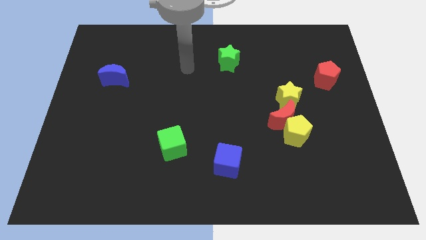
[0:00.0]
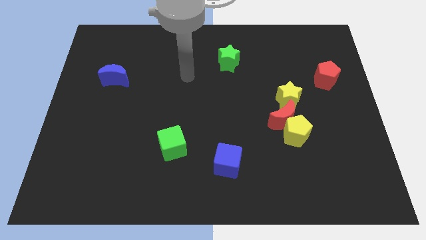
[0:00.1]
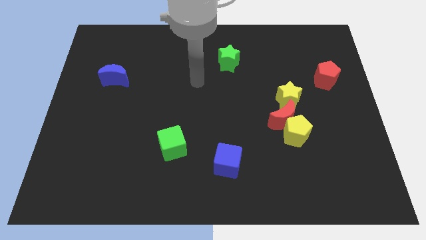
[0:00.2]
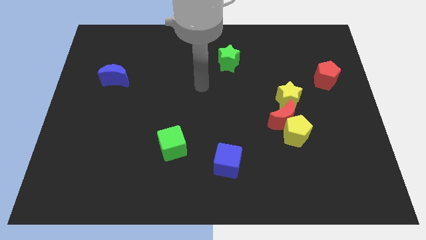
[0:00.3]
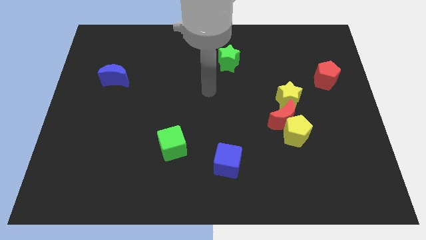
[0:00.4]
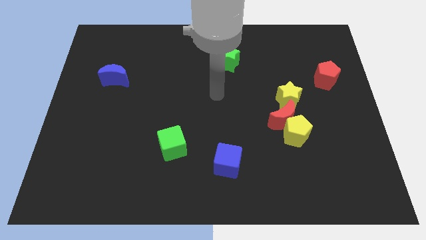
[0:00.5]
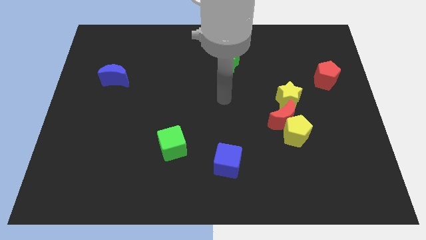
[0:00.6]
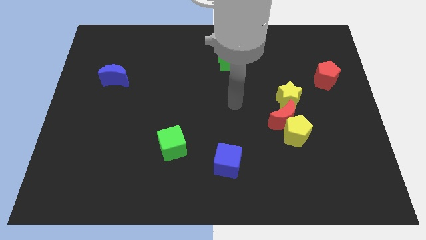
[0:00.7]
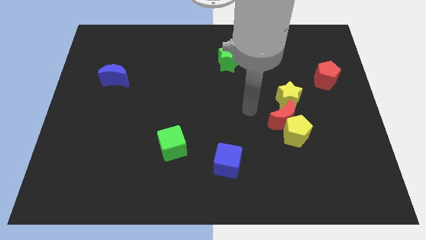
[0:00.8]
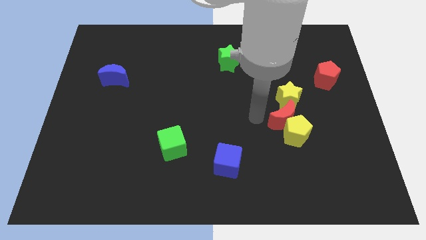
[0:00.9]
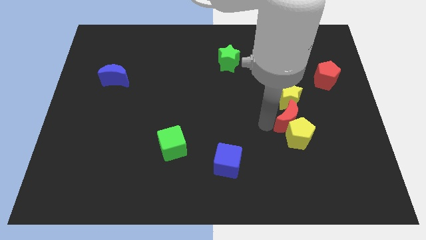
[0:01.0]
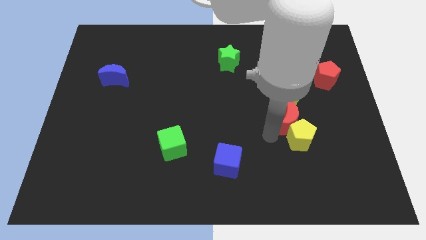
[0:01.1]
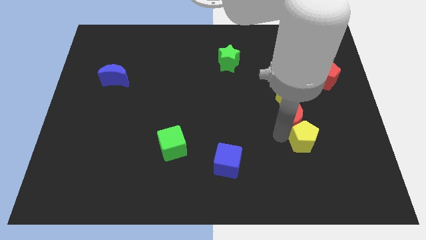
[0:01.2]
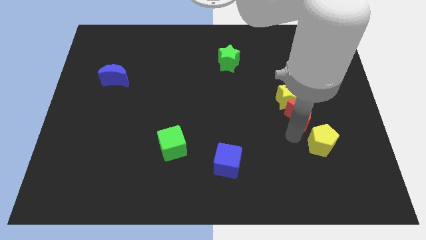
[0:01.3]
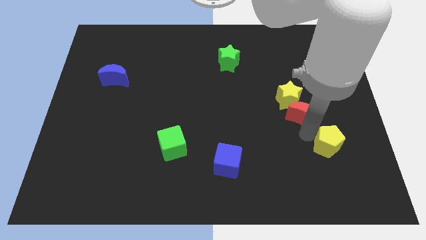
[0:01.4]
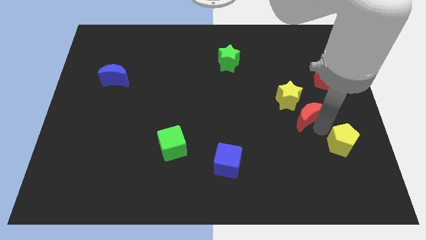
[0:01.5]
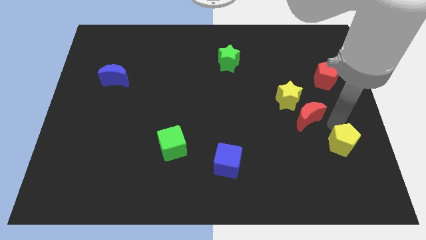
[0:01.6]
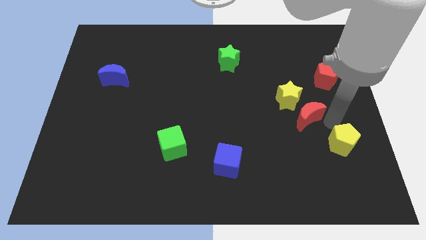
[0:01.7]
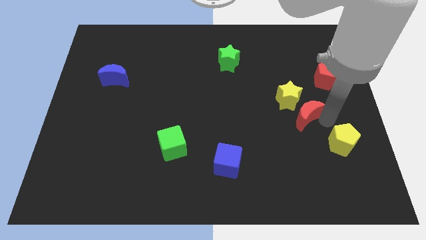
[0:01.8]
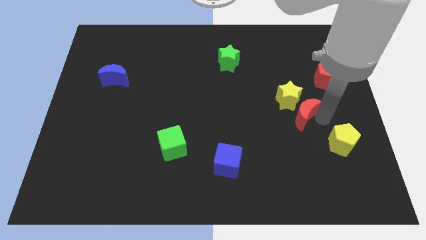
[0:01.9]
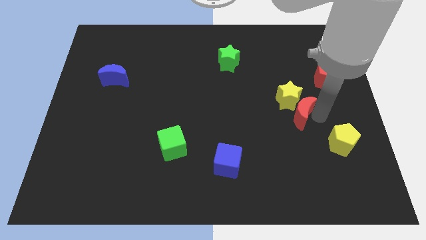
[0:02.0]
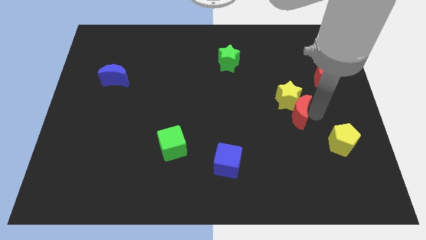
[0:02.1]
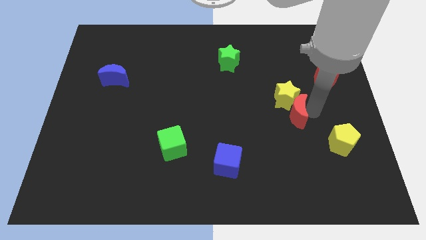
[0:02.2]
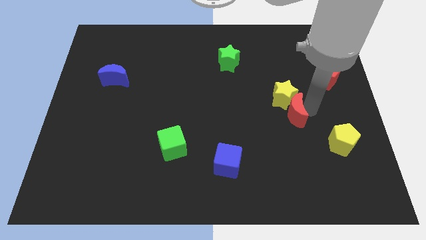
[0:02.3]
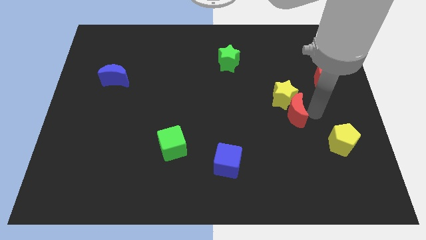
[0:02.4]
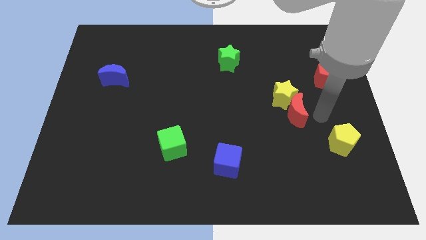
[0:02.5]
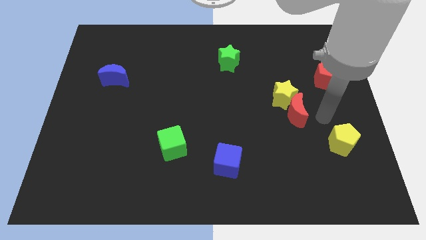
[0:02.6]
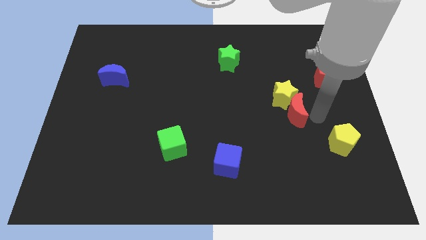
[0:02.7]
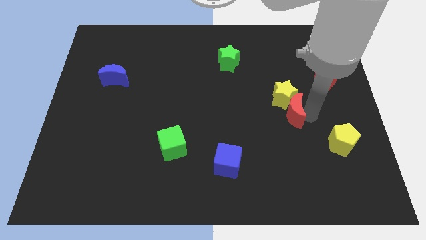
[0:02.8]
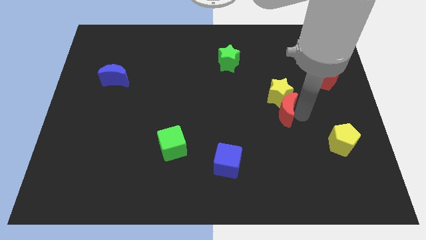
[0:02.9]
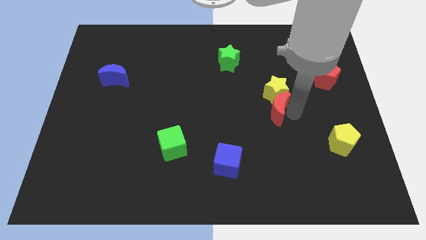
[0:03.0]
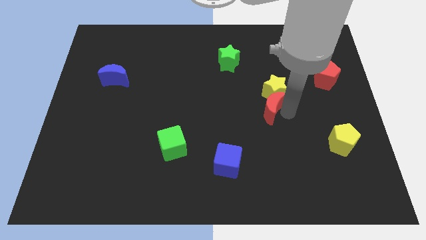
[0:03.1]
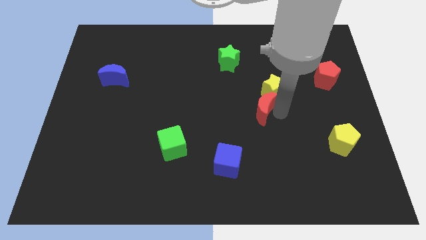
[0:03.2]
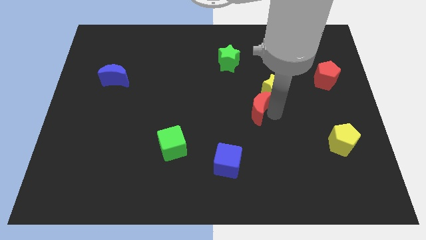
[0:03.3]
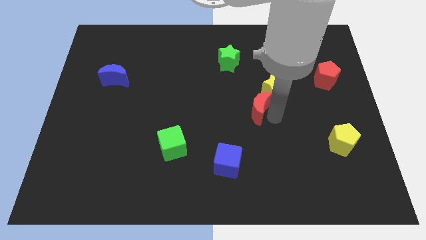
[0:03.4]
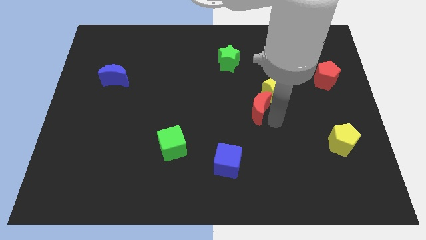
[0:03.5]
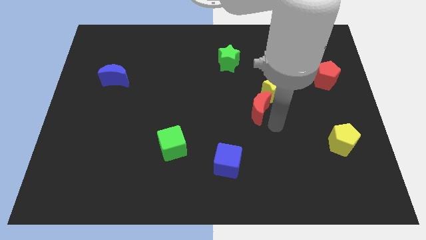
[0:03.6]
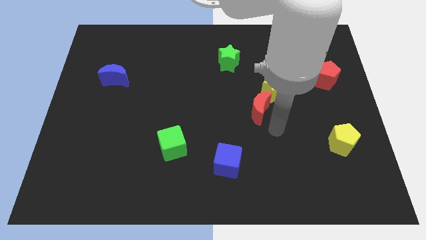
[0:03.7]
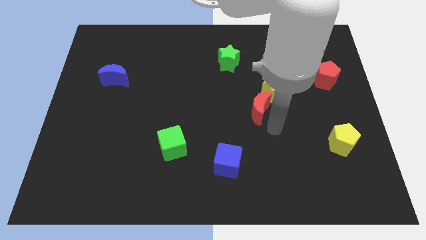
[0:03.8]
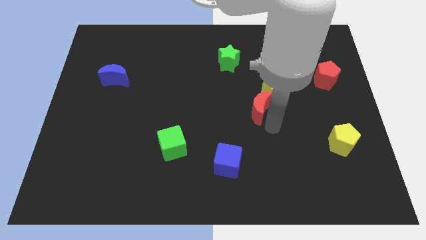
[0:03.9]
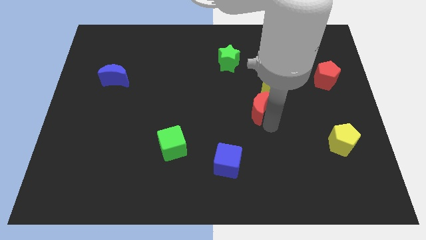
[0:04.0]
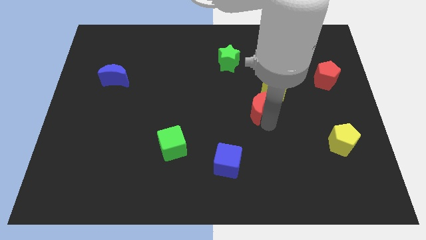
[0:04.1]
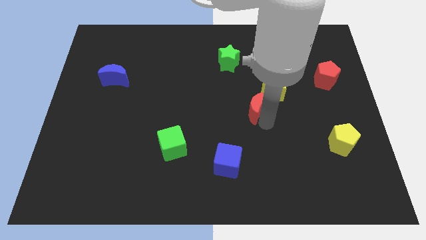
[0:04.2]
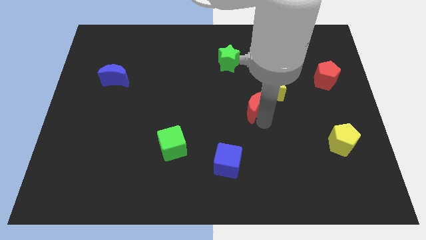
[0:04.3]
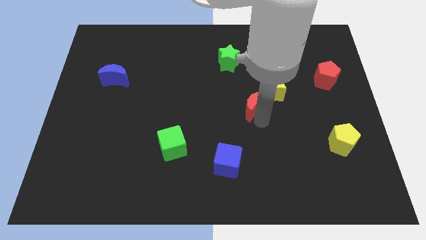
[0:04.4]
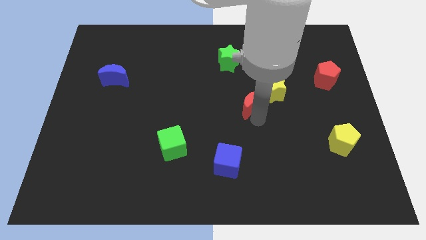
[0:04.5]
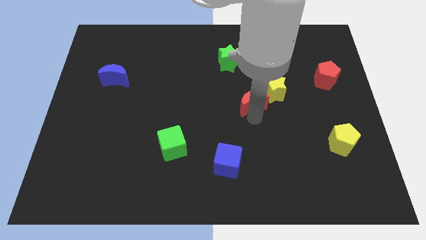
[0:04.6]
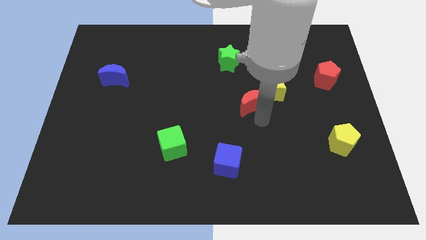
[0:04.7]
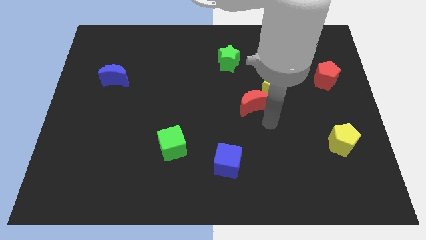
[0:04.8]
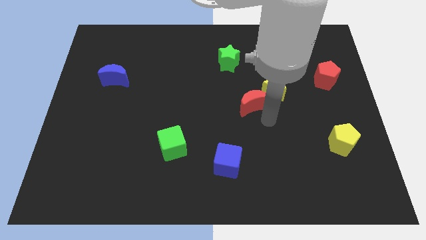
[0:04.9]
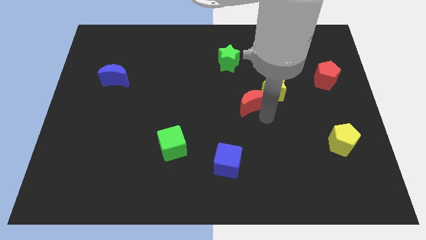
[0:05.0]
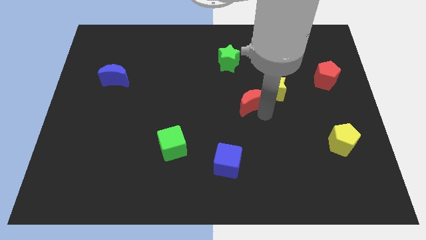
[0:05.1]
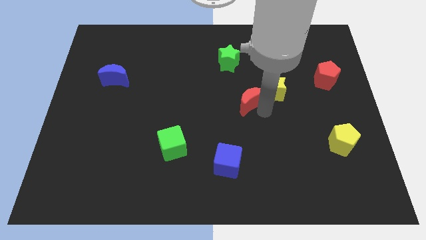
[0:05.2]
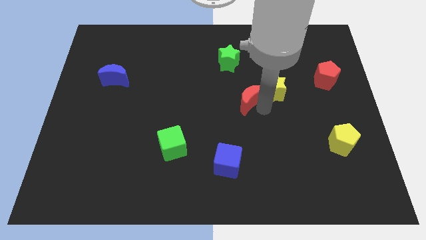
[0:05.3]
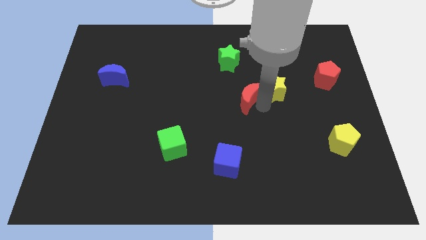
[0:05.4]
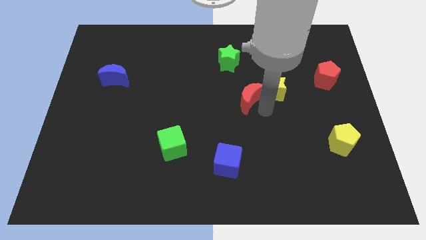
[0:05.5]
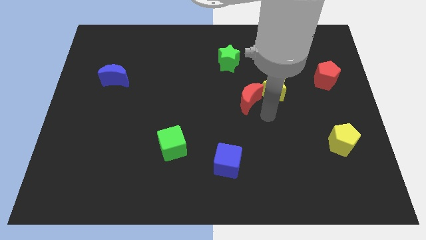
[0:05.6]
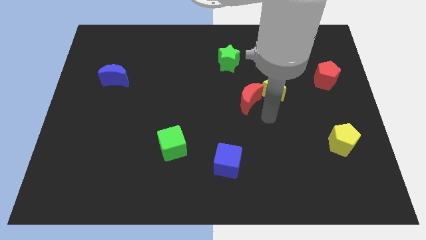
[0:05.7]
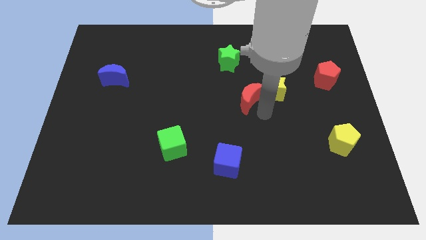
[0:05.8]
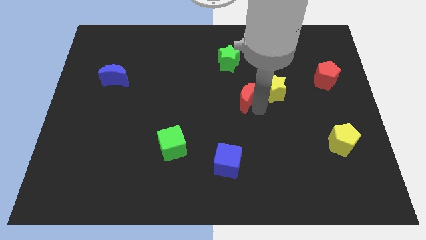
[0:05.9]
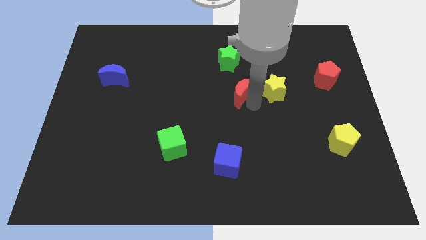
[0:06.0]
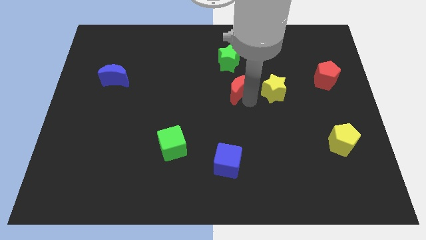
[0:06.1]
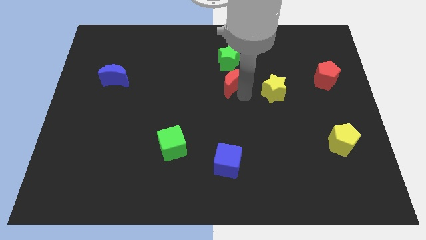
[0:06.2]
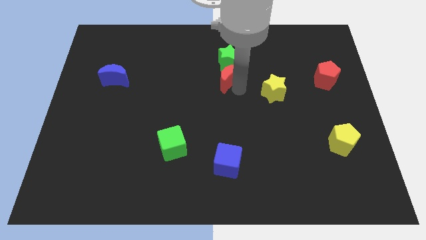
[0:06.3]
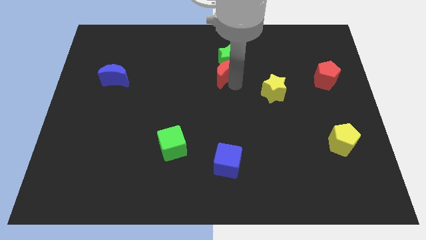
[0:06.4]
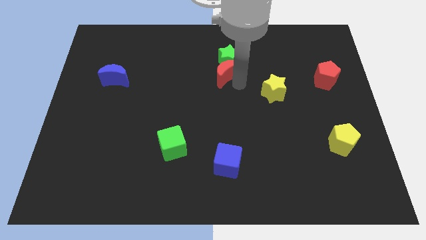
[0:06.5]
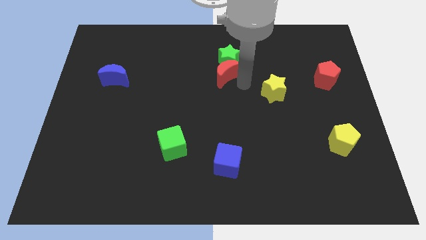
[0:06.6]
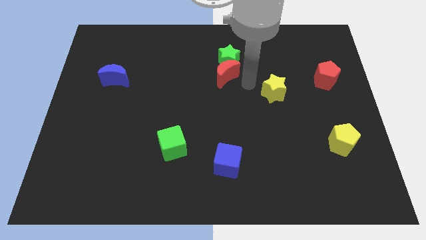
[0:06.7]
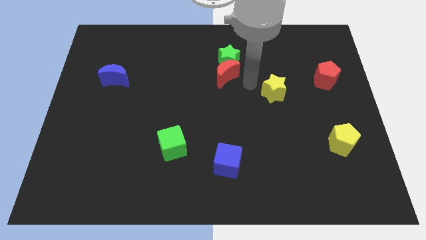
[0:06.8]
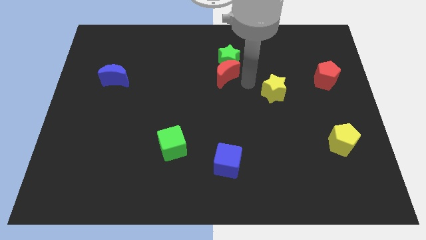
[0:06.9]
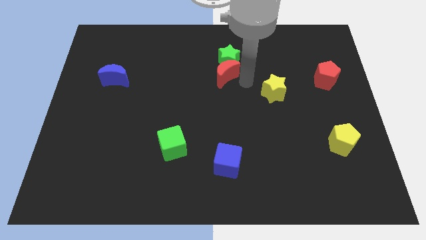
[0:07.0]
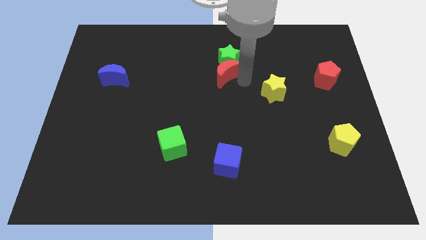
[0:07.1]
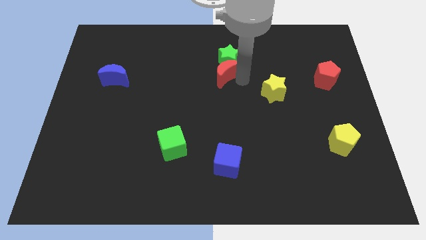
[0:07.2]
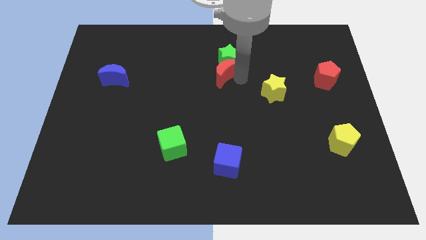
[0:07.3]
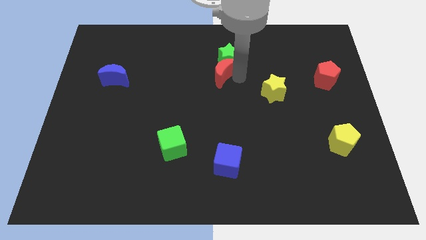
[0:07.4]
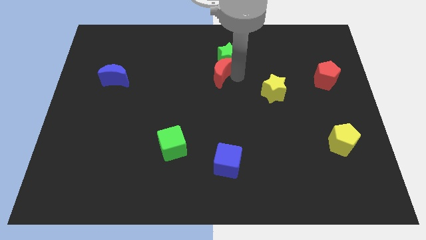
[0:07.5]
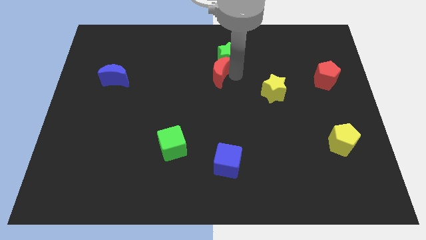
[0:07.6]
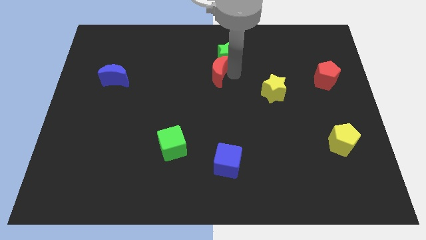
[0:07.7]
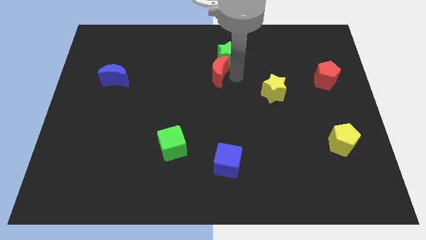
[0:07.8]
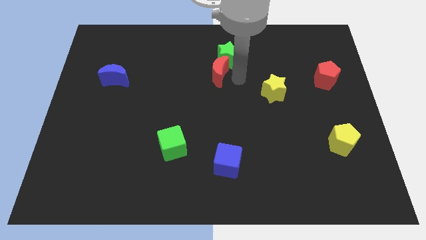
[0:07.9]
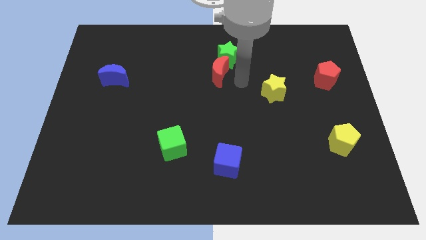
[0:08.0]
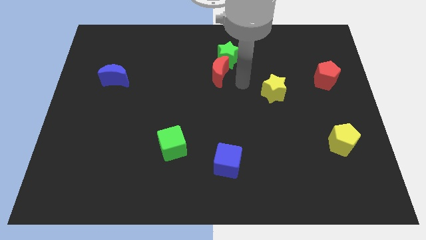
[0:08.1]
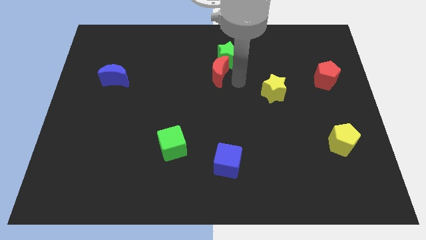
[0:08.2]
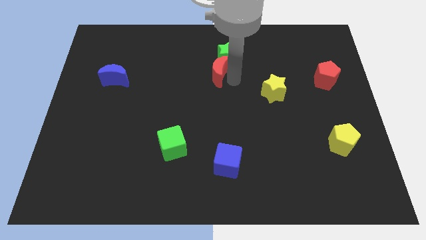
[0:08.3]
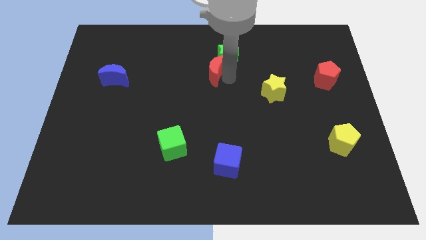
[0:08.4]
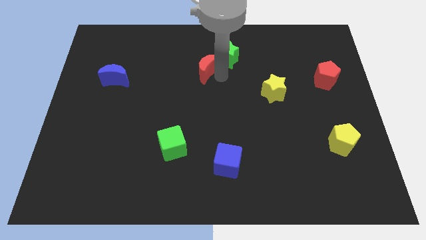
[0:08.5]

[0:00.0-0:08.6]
put the red moon to the left side of the green star
